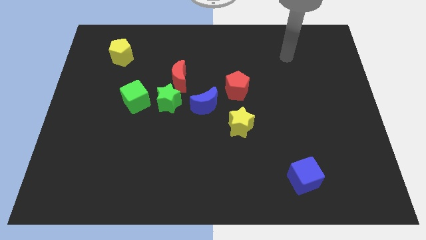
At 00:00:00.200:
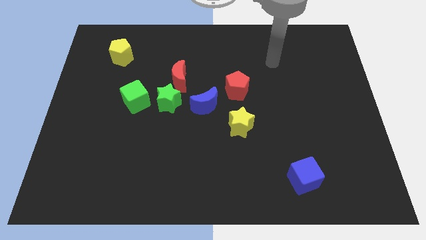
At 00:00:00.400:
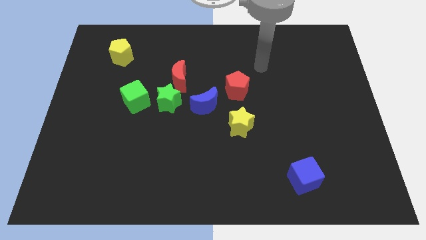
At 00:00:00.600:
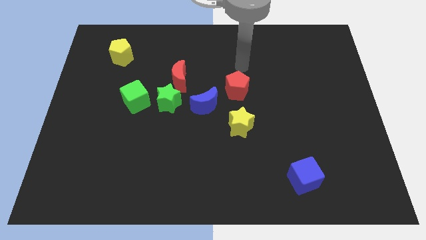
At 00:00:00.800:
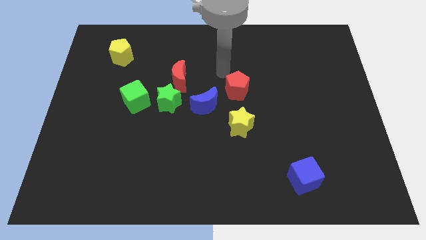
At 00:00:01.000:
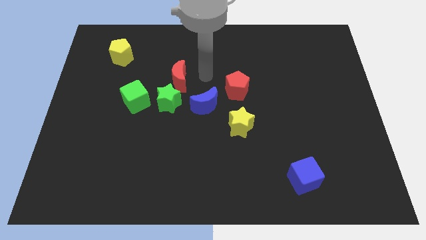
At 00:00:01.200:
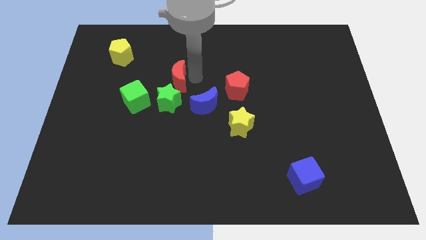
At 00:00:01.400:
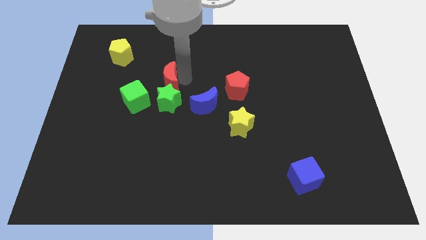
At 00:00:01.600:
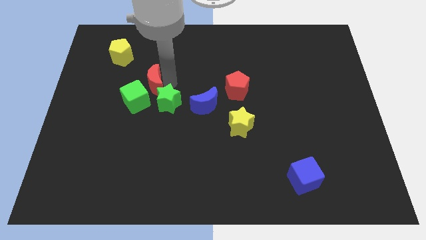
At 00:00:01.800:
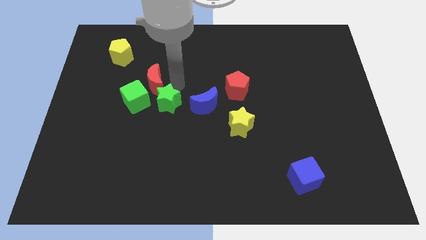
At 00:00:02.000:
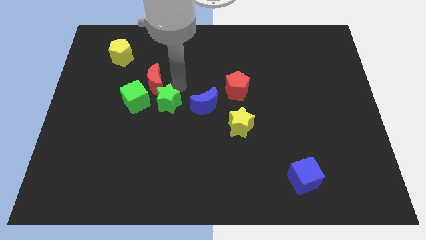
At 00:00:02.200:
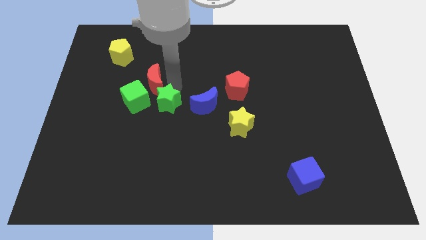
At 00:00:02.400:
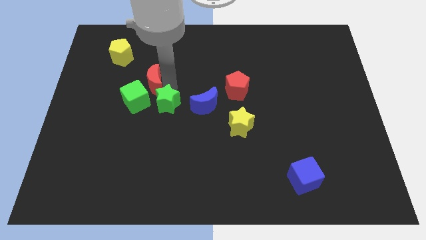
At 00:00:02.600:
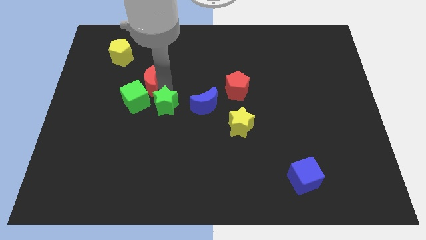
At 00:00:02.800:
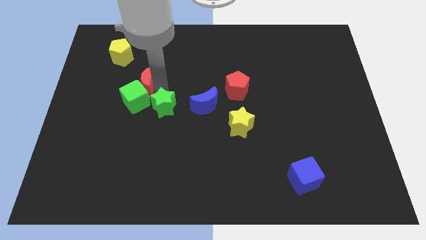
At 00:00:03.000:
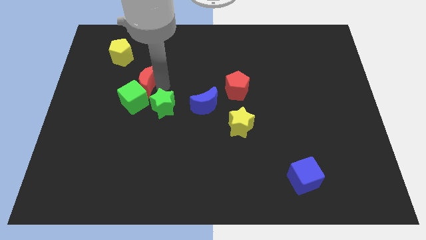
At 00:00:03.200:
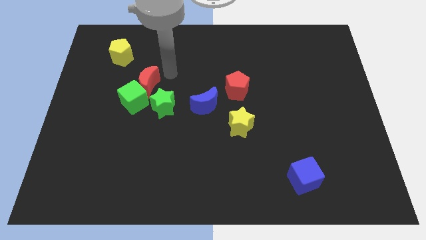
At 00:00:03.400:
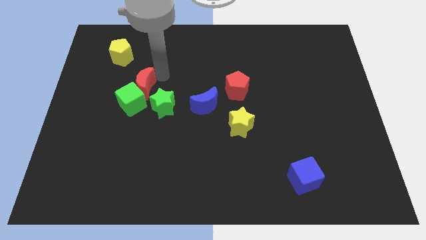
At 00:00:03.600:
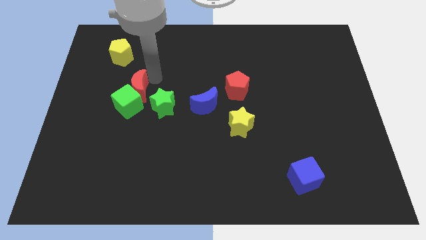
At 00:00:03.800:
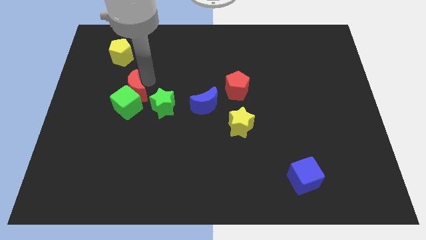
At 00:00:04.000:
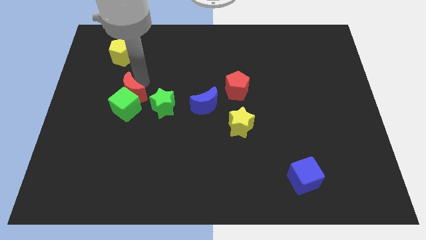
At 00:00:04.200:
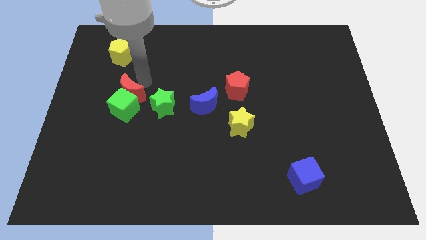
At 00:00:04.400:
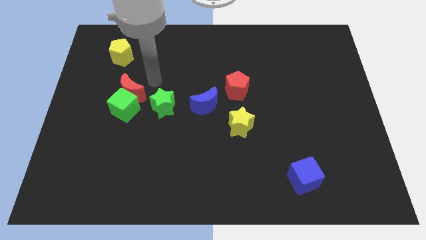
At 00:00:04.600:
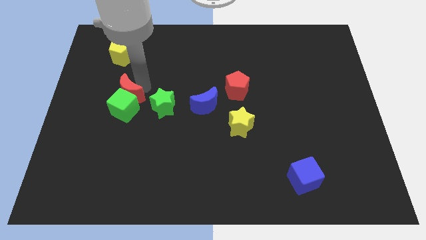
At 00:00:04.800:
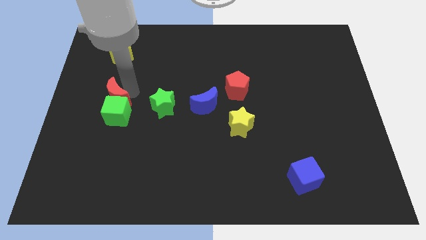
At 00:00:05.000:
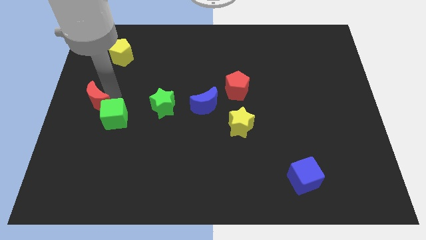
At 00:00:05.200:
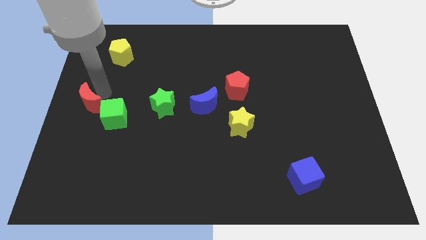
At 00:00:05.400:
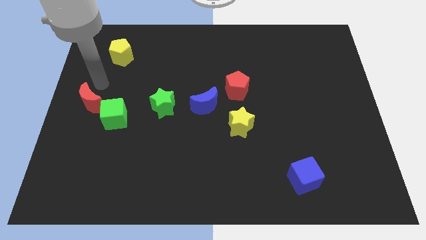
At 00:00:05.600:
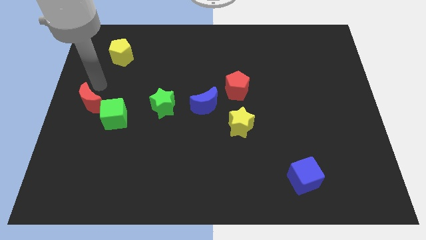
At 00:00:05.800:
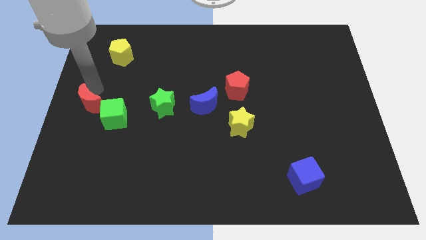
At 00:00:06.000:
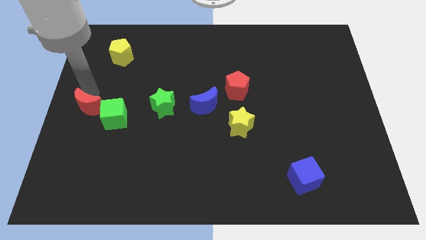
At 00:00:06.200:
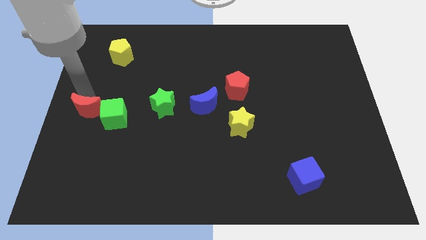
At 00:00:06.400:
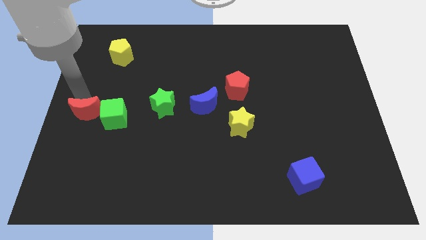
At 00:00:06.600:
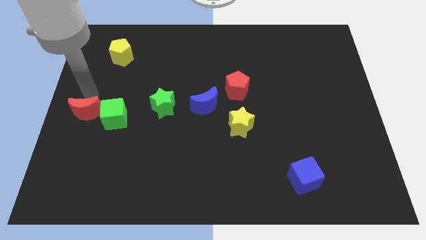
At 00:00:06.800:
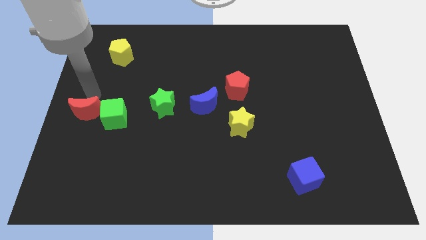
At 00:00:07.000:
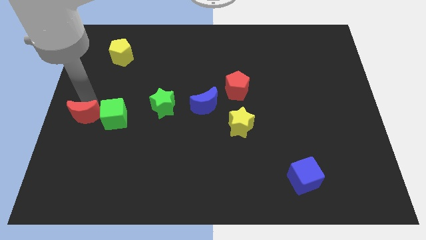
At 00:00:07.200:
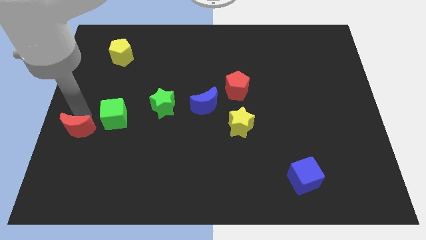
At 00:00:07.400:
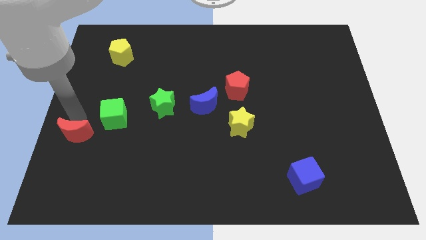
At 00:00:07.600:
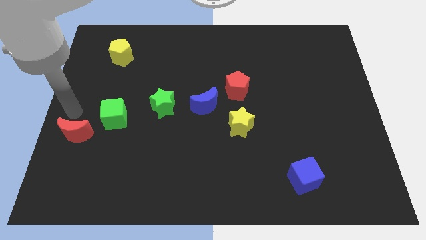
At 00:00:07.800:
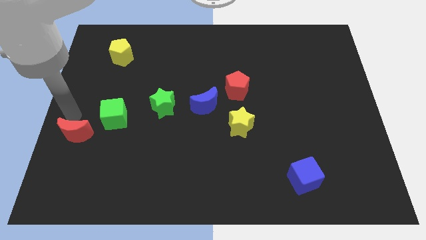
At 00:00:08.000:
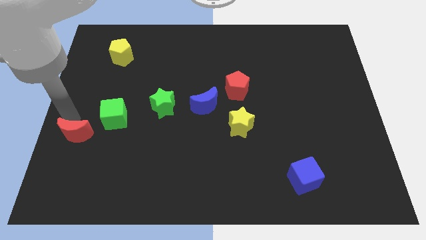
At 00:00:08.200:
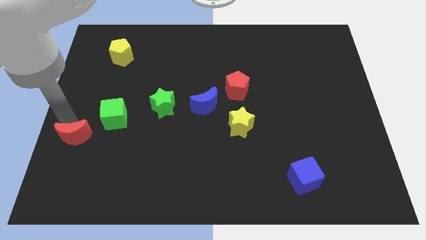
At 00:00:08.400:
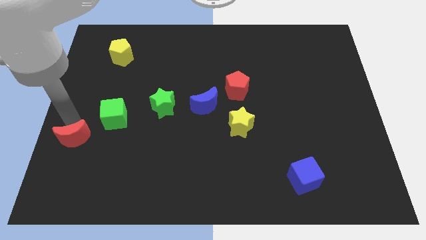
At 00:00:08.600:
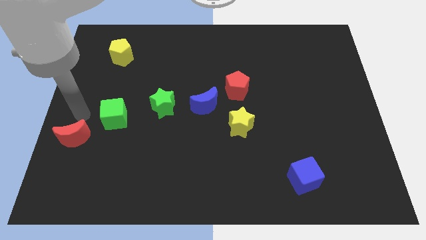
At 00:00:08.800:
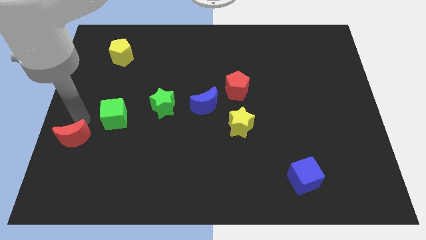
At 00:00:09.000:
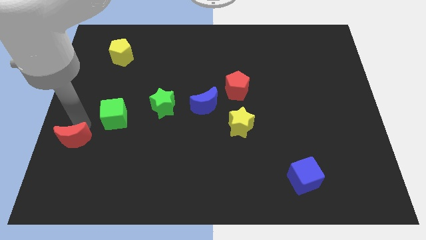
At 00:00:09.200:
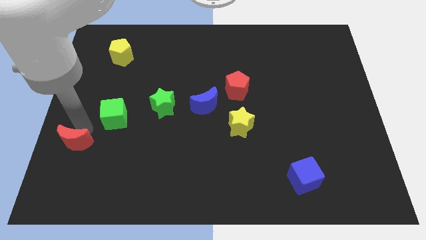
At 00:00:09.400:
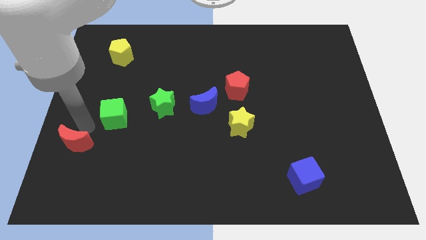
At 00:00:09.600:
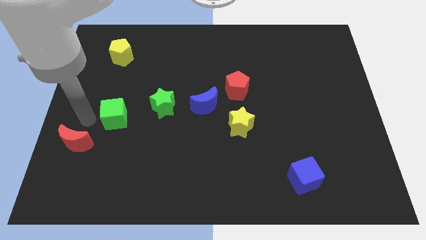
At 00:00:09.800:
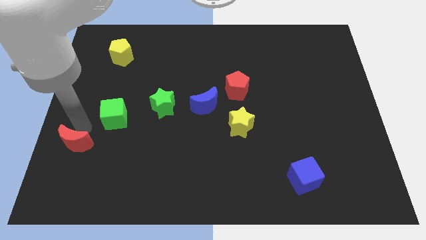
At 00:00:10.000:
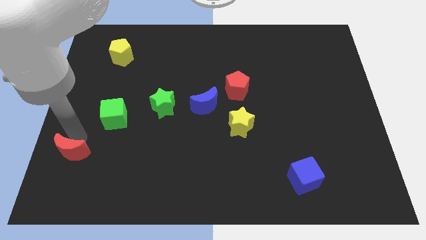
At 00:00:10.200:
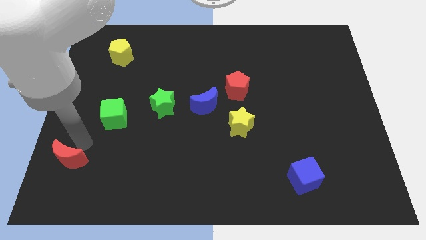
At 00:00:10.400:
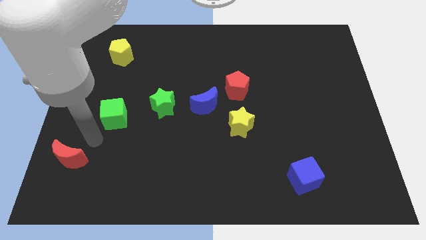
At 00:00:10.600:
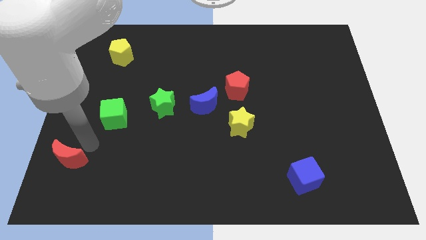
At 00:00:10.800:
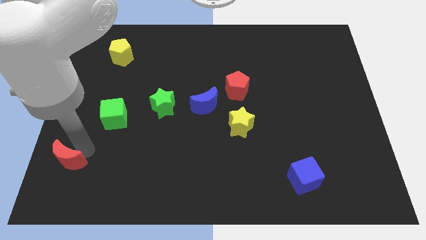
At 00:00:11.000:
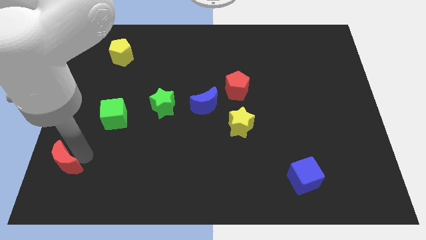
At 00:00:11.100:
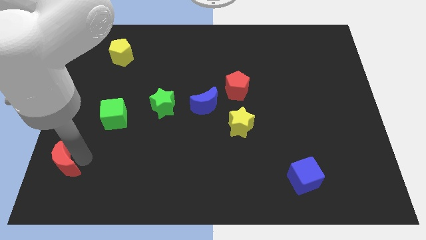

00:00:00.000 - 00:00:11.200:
move the red moon to the bottom left

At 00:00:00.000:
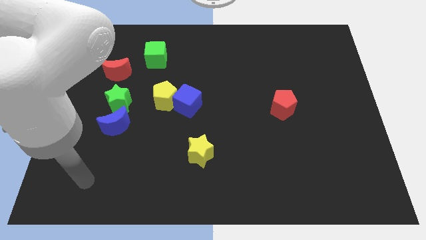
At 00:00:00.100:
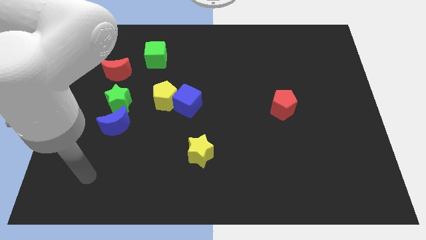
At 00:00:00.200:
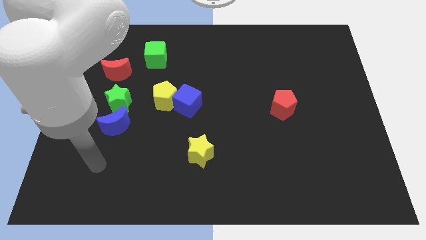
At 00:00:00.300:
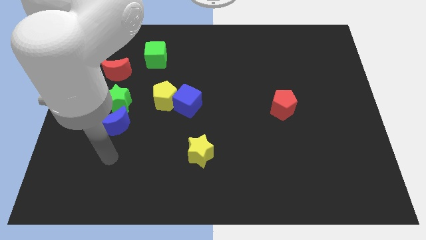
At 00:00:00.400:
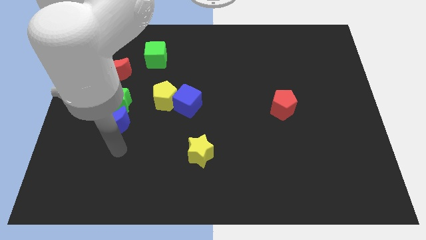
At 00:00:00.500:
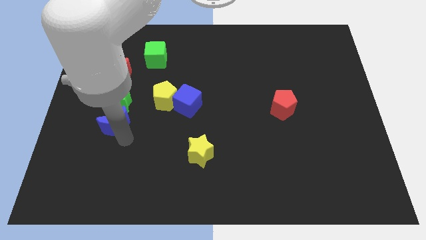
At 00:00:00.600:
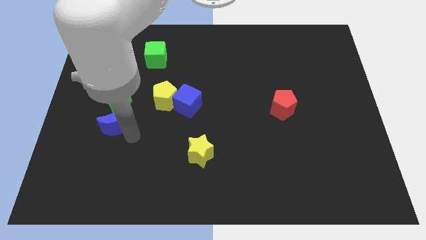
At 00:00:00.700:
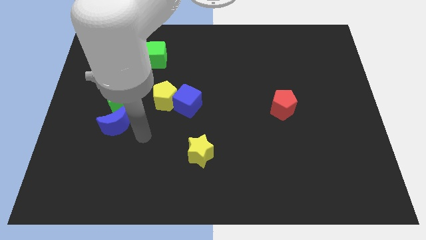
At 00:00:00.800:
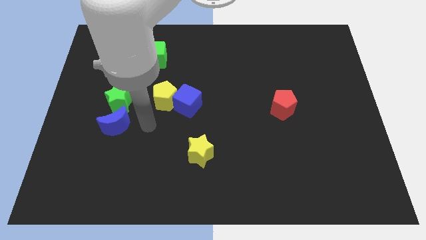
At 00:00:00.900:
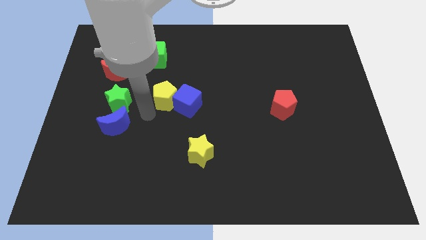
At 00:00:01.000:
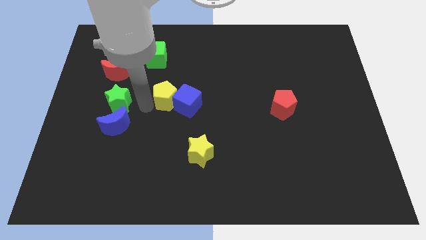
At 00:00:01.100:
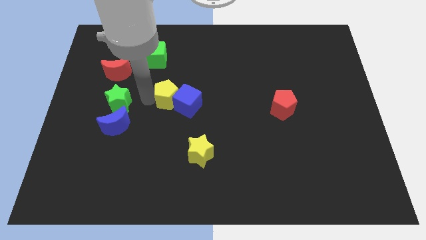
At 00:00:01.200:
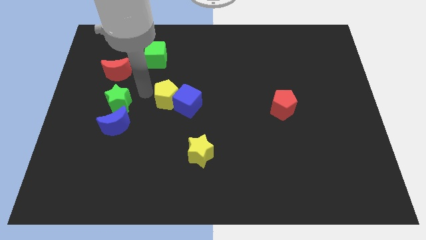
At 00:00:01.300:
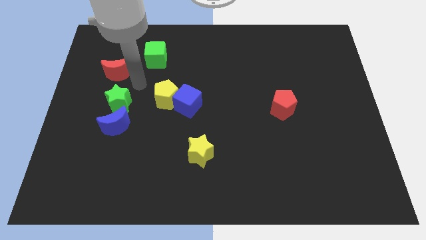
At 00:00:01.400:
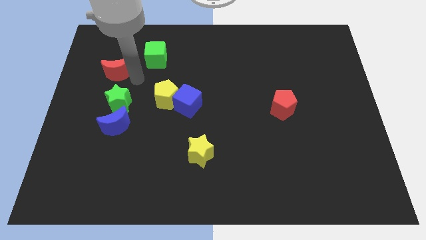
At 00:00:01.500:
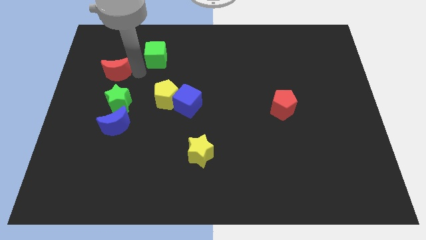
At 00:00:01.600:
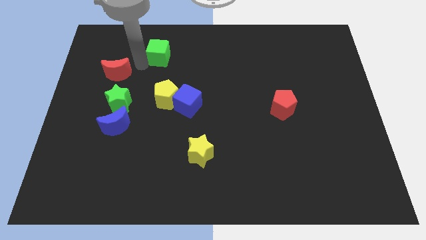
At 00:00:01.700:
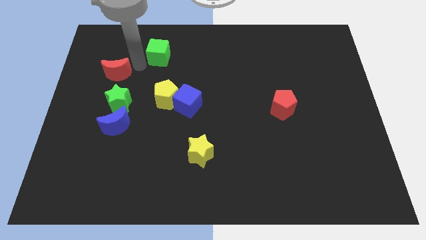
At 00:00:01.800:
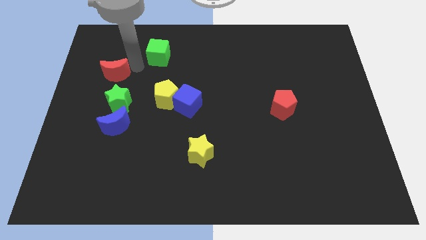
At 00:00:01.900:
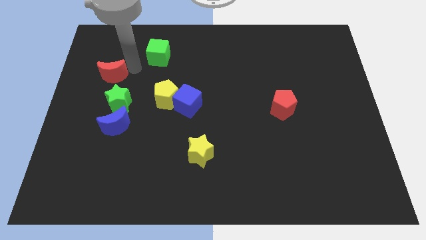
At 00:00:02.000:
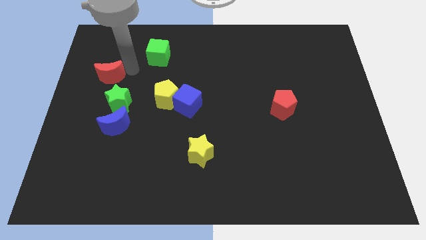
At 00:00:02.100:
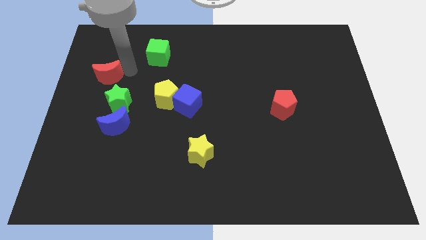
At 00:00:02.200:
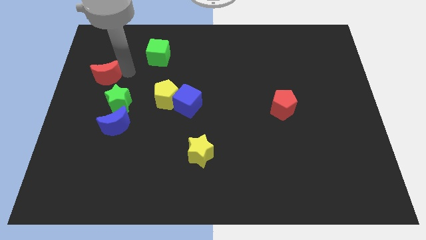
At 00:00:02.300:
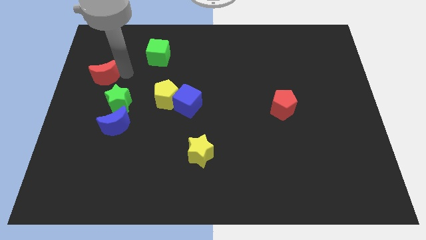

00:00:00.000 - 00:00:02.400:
slide the red moon to the left side of the board
